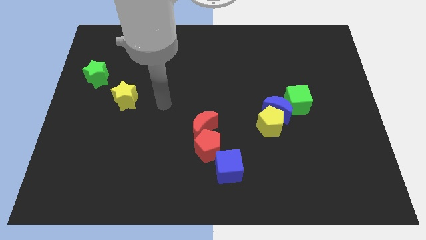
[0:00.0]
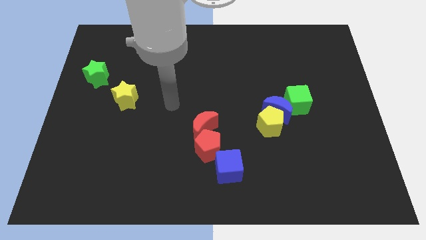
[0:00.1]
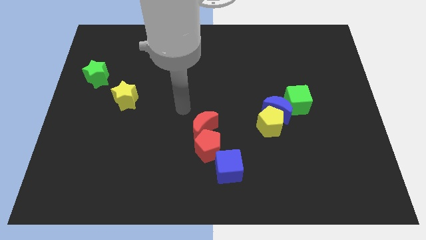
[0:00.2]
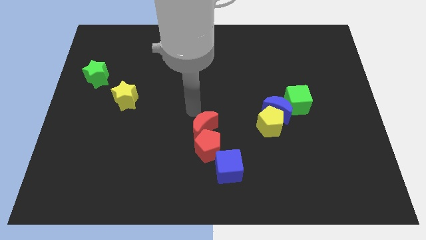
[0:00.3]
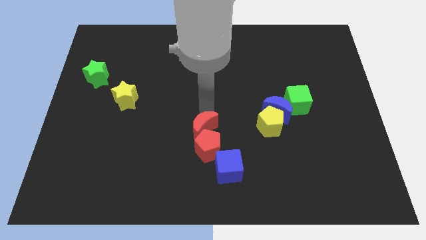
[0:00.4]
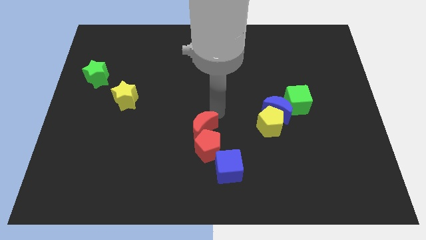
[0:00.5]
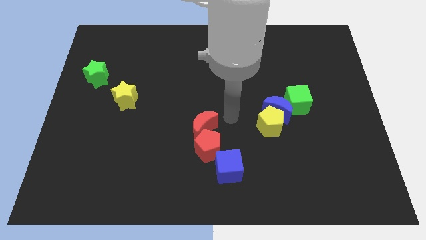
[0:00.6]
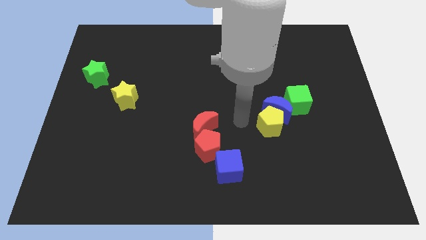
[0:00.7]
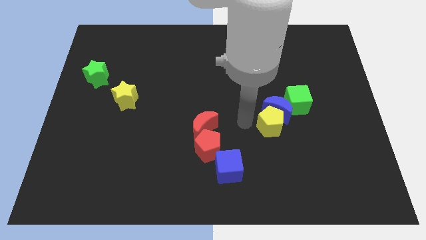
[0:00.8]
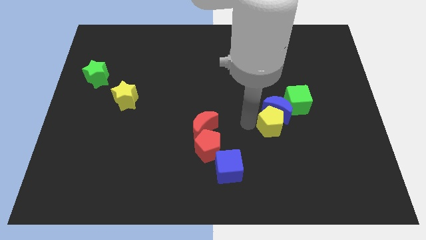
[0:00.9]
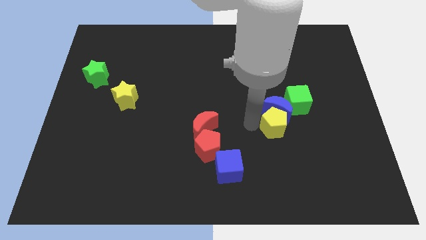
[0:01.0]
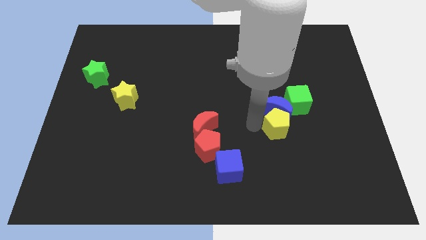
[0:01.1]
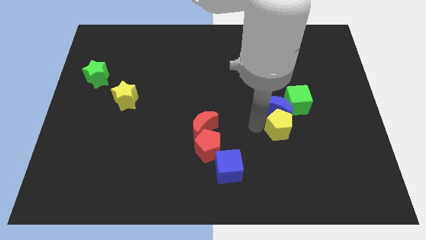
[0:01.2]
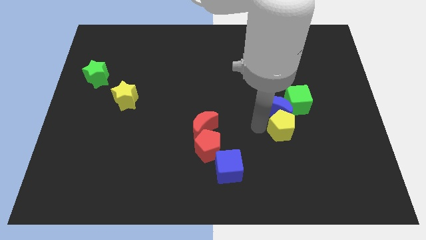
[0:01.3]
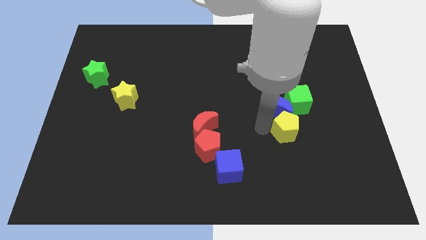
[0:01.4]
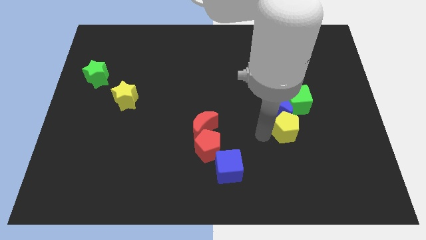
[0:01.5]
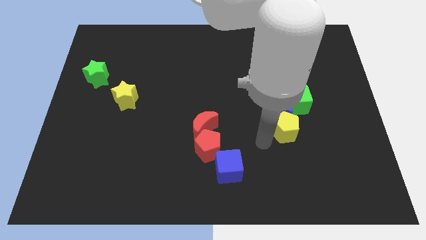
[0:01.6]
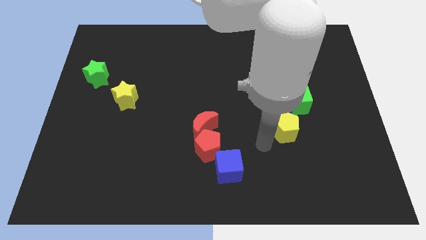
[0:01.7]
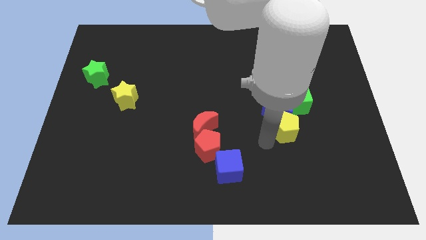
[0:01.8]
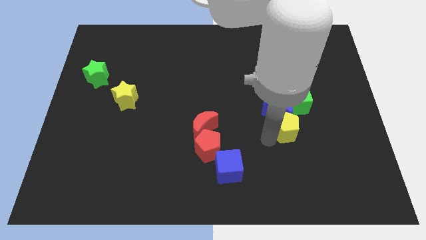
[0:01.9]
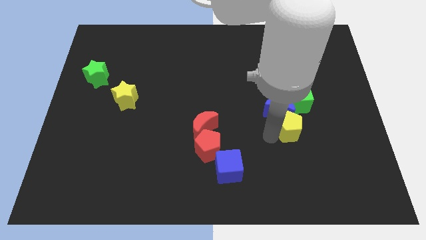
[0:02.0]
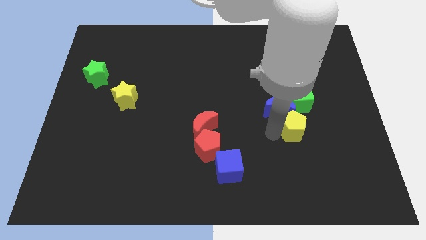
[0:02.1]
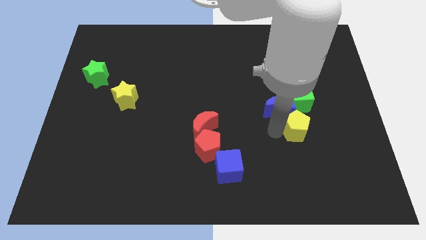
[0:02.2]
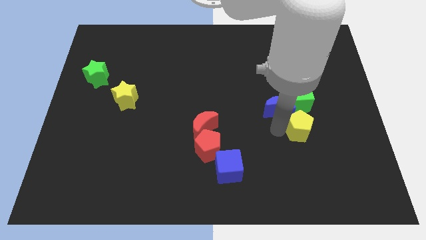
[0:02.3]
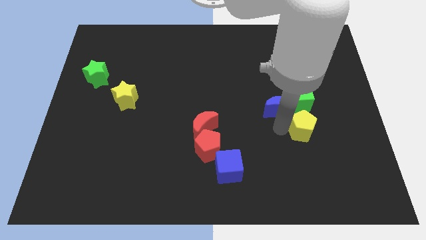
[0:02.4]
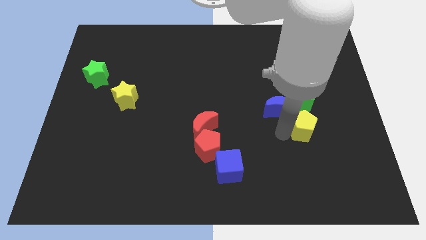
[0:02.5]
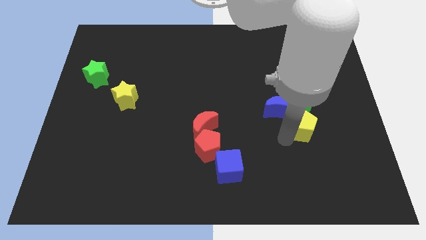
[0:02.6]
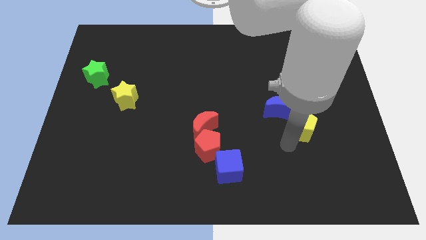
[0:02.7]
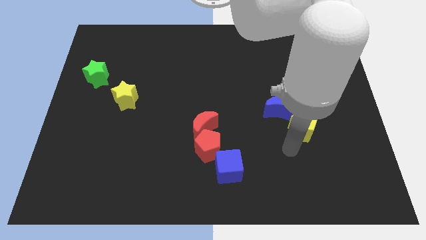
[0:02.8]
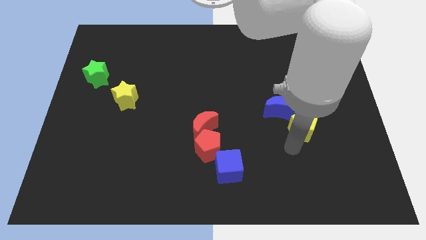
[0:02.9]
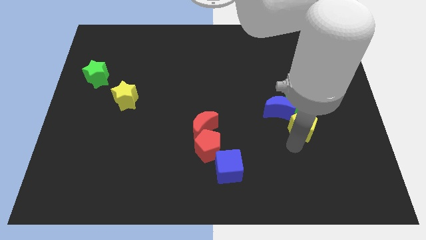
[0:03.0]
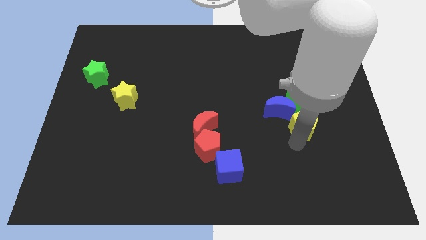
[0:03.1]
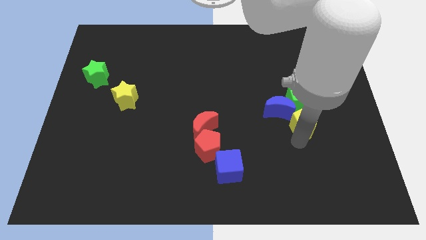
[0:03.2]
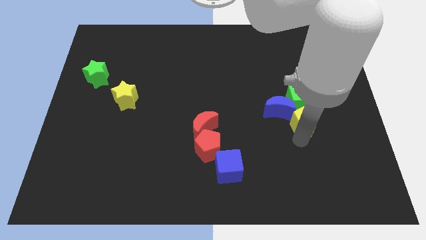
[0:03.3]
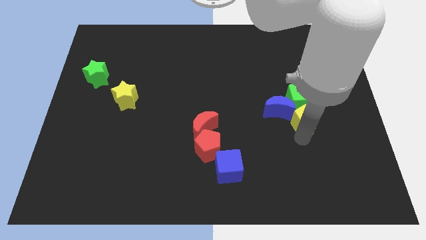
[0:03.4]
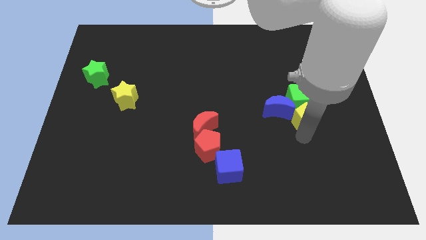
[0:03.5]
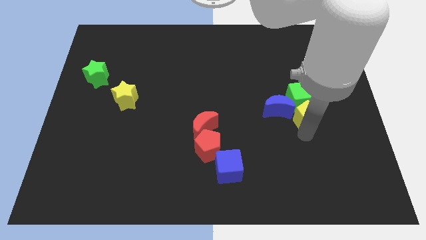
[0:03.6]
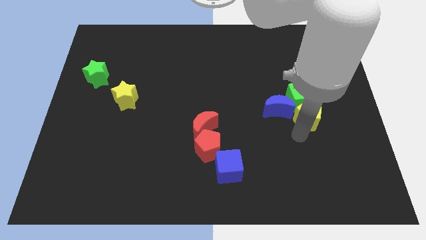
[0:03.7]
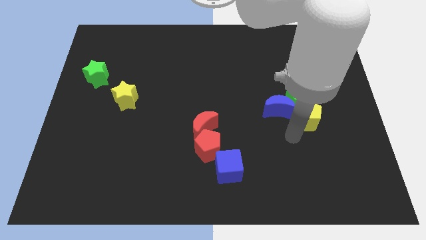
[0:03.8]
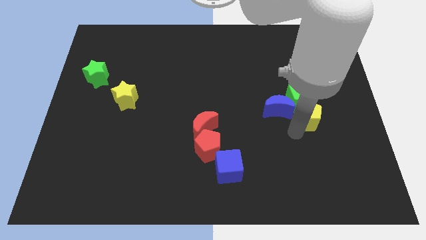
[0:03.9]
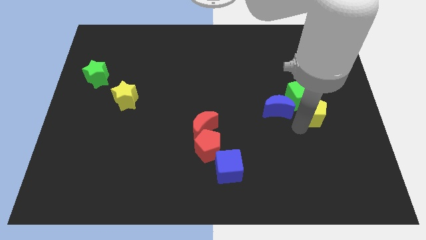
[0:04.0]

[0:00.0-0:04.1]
push the yellow pentagon a little diagonally up and to the right

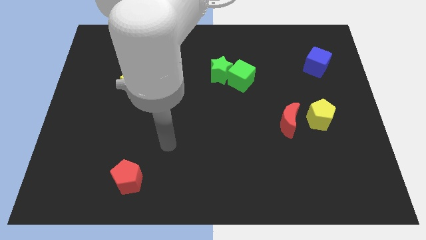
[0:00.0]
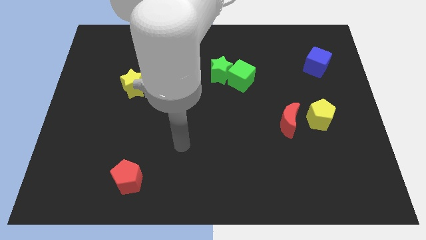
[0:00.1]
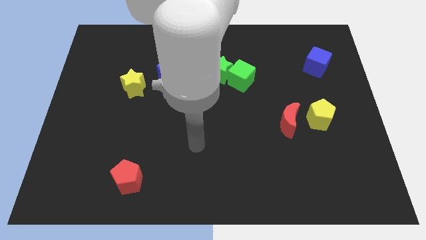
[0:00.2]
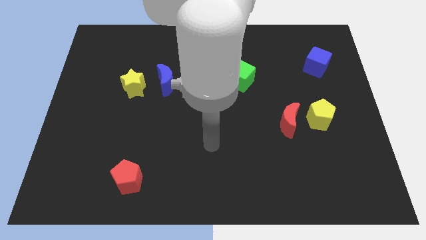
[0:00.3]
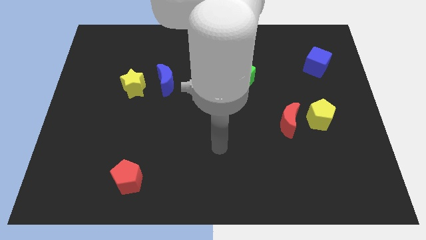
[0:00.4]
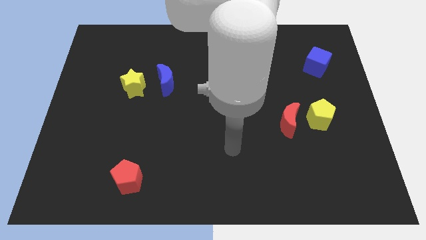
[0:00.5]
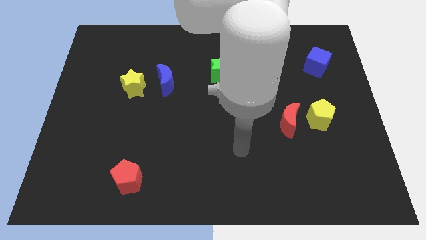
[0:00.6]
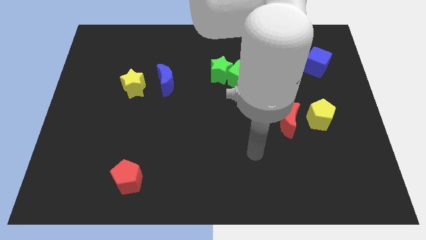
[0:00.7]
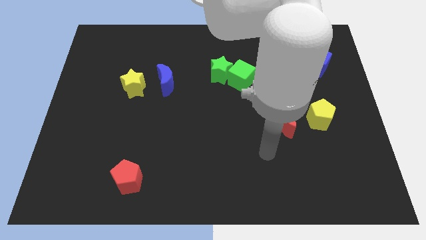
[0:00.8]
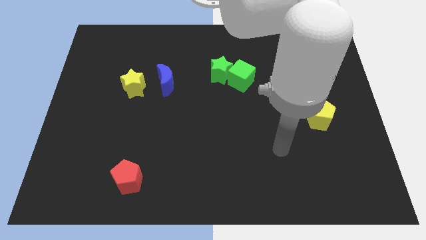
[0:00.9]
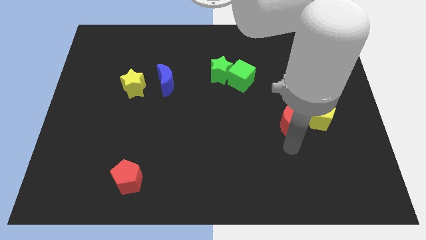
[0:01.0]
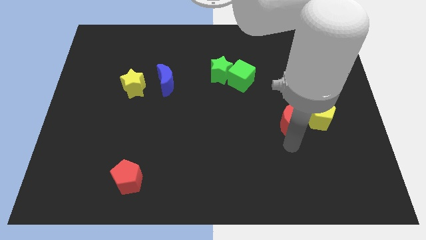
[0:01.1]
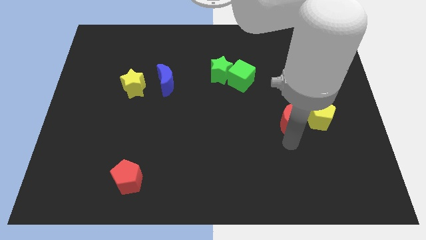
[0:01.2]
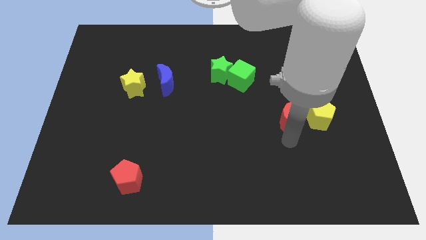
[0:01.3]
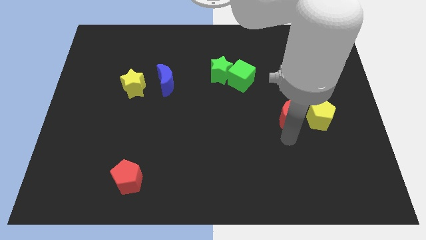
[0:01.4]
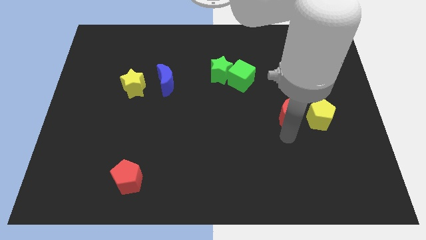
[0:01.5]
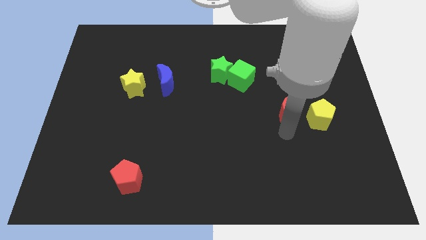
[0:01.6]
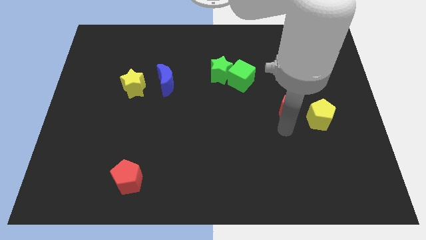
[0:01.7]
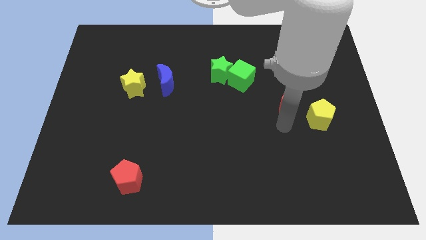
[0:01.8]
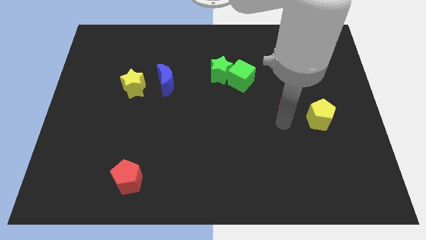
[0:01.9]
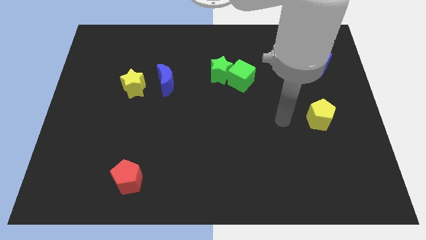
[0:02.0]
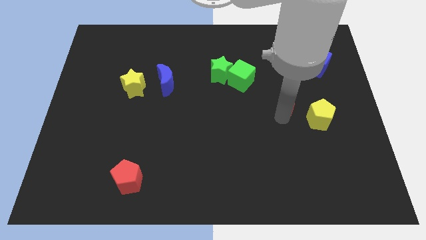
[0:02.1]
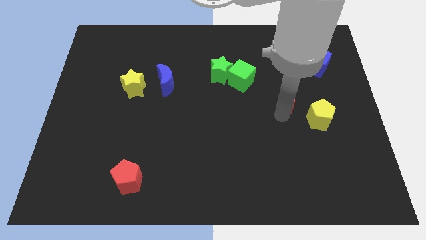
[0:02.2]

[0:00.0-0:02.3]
slightly push the red moon upwards

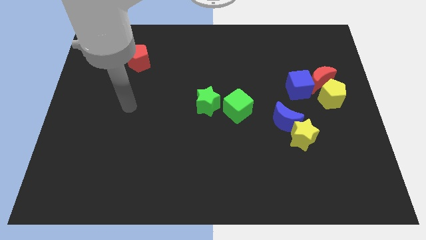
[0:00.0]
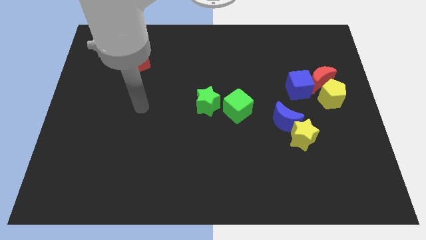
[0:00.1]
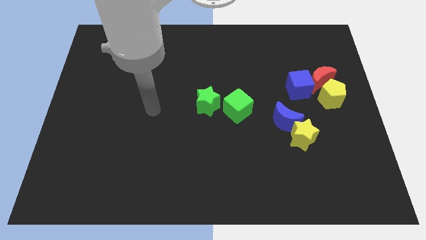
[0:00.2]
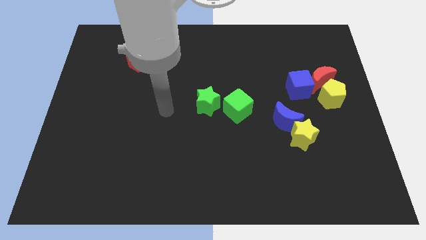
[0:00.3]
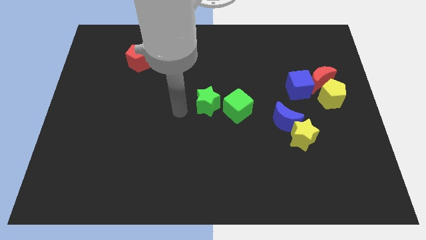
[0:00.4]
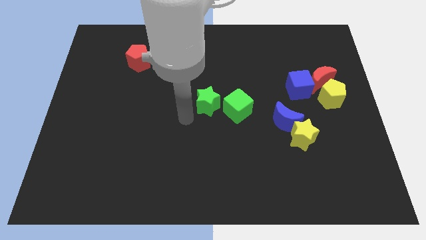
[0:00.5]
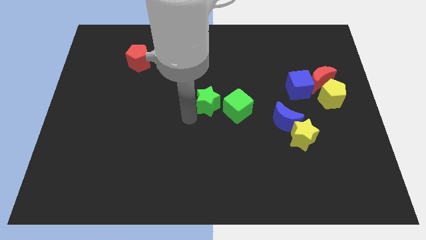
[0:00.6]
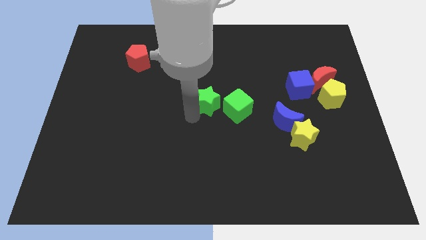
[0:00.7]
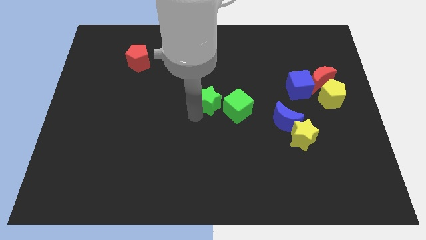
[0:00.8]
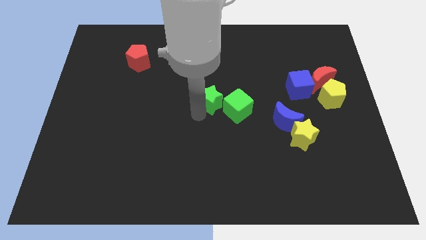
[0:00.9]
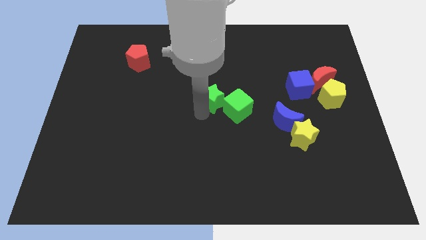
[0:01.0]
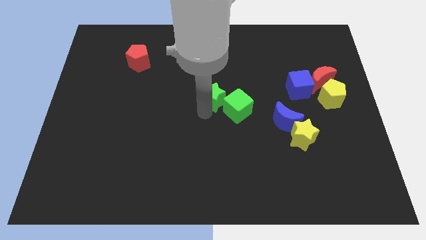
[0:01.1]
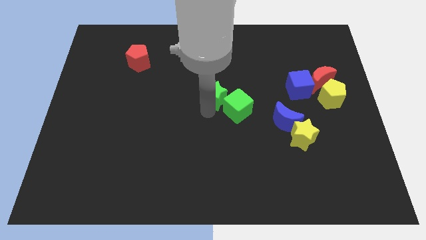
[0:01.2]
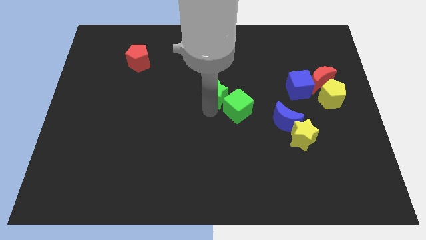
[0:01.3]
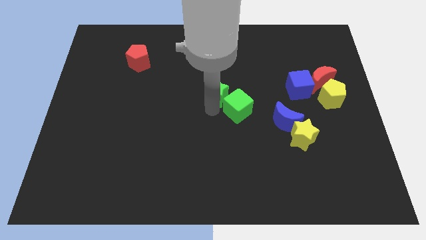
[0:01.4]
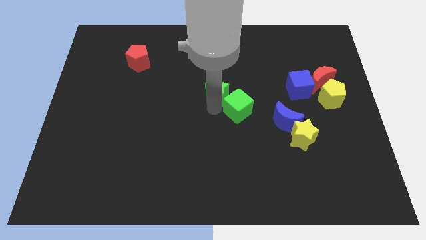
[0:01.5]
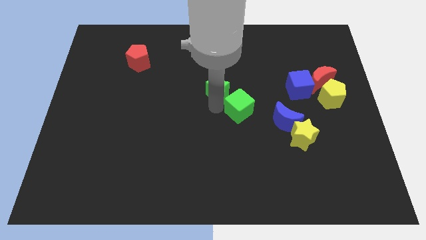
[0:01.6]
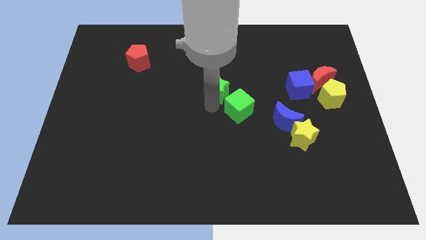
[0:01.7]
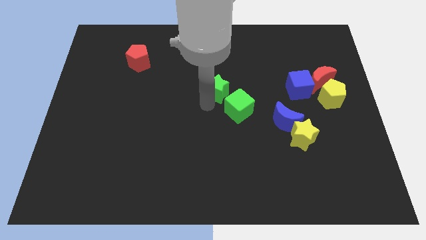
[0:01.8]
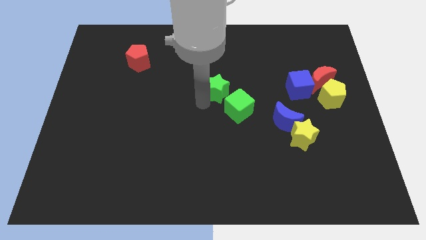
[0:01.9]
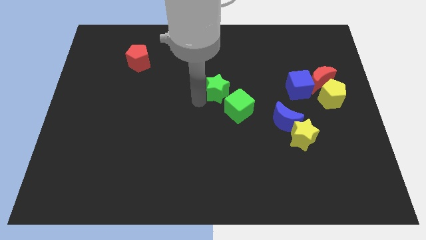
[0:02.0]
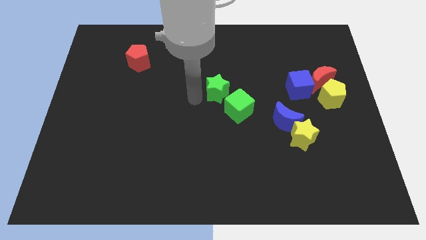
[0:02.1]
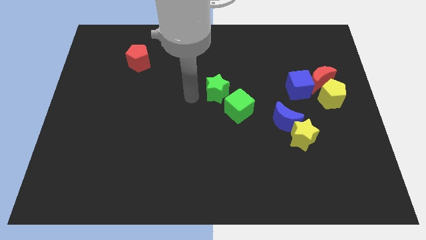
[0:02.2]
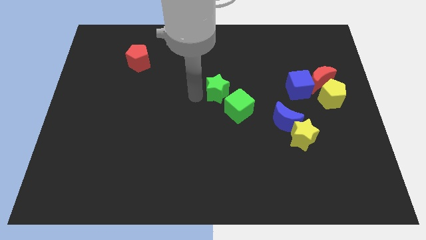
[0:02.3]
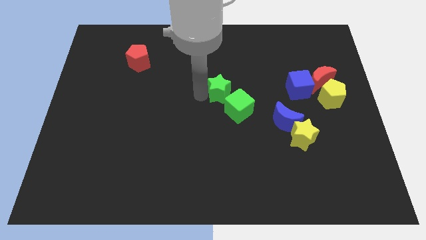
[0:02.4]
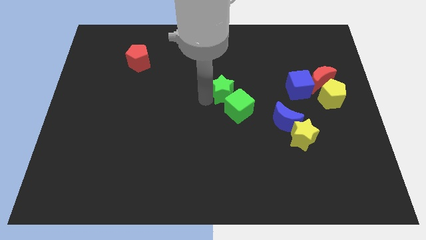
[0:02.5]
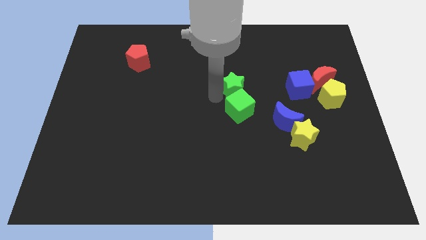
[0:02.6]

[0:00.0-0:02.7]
push the green star a little bit diagonally up and to the right
